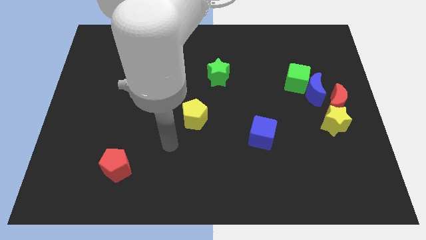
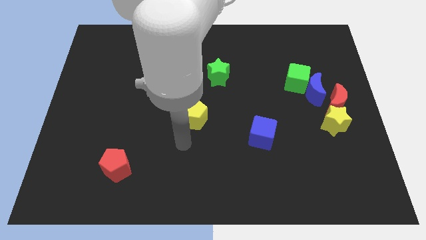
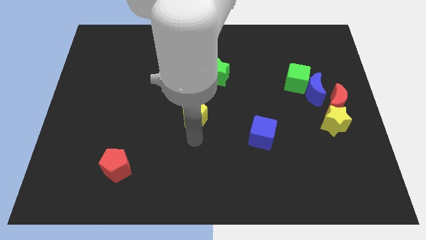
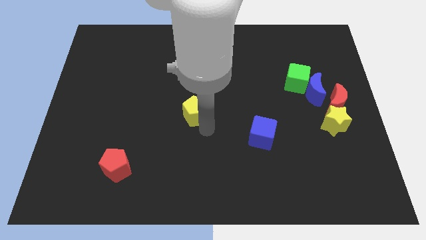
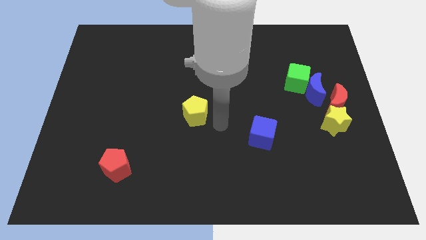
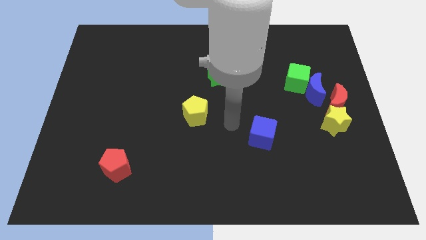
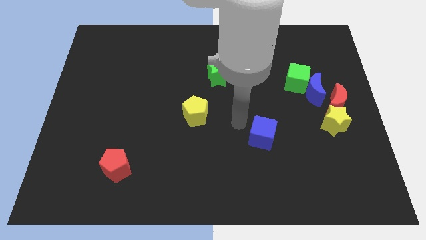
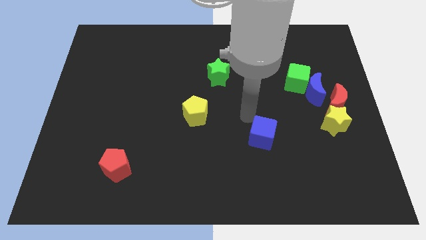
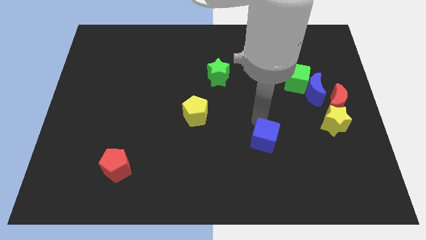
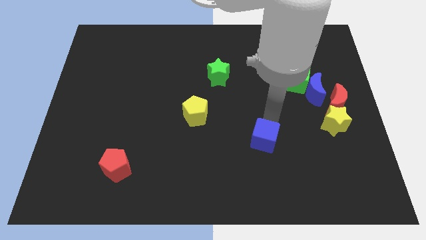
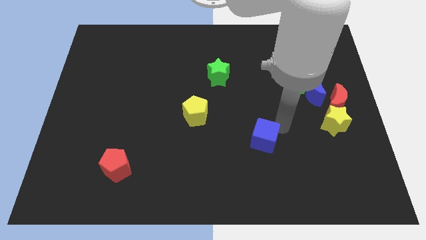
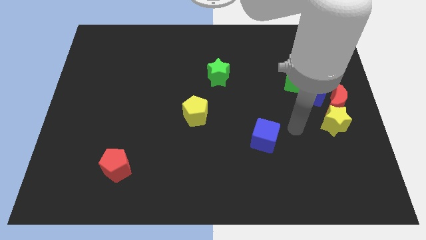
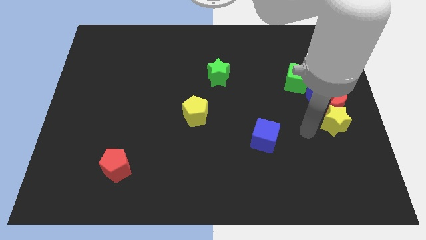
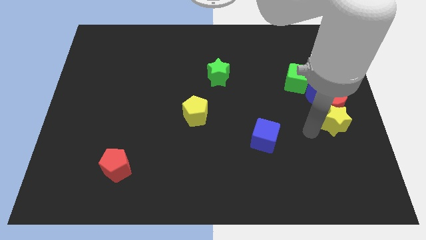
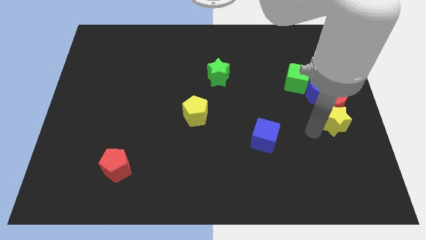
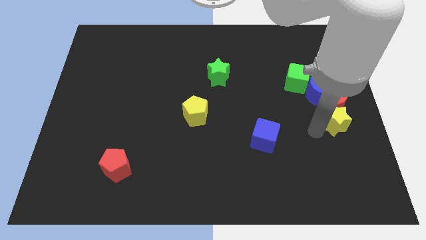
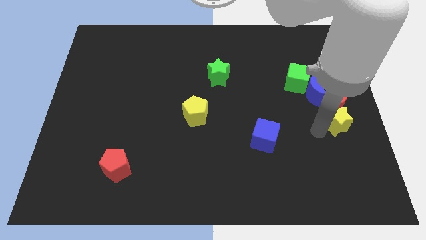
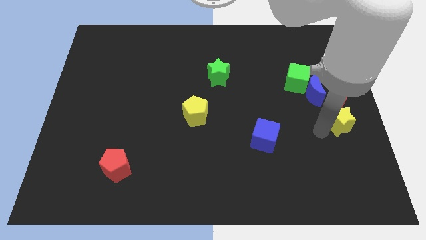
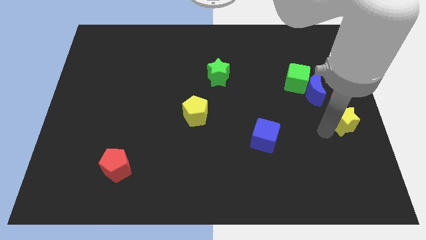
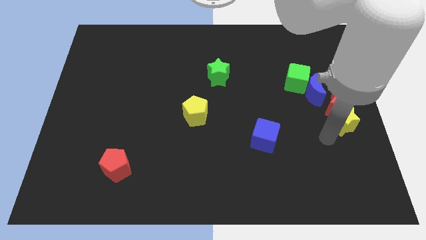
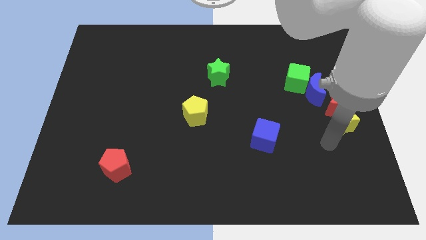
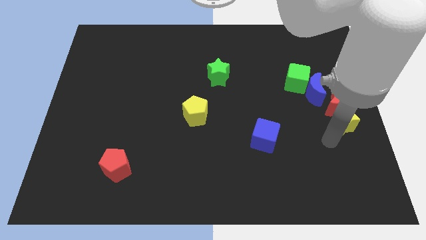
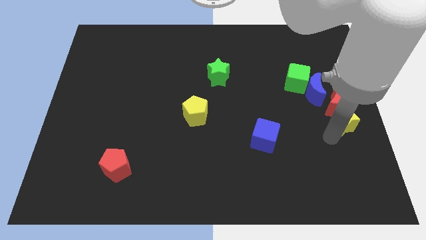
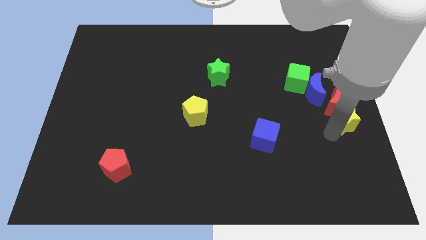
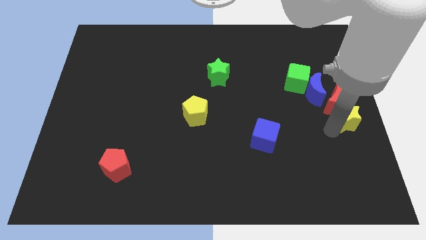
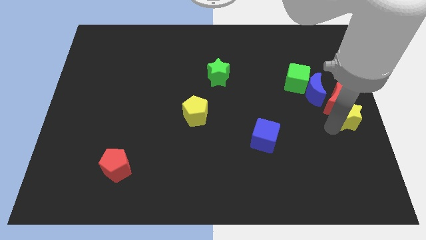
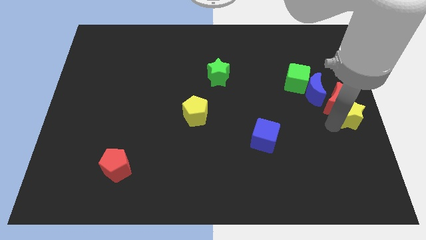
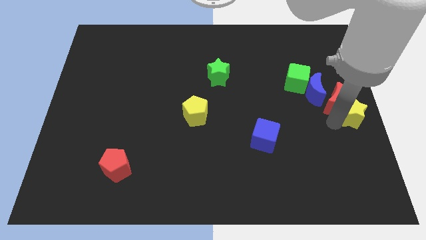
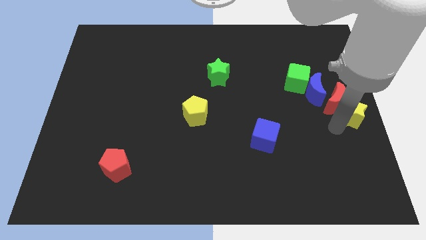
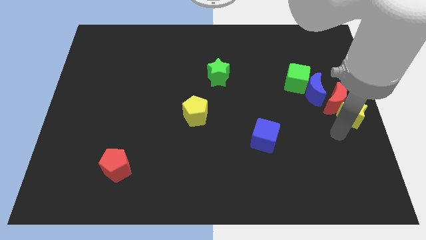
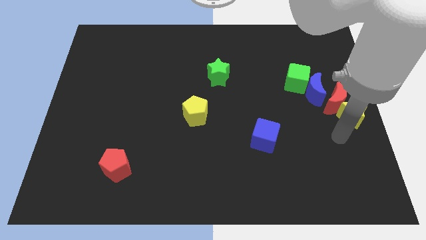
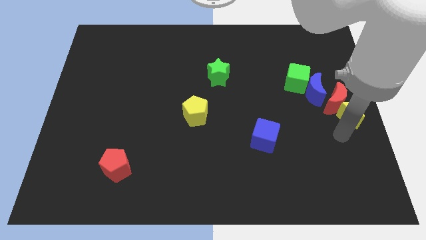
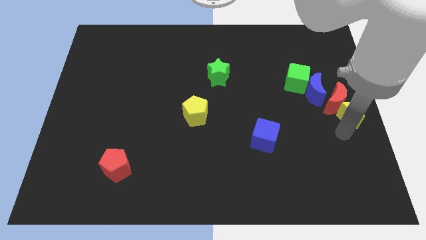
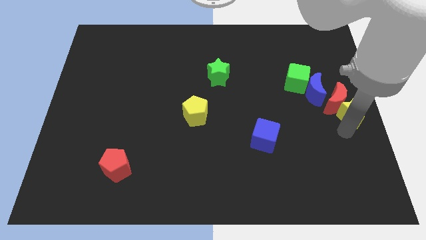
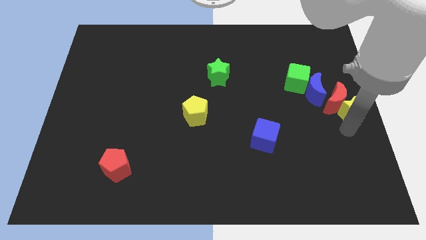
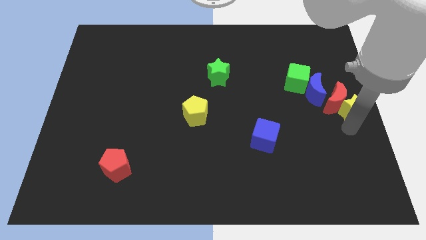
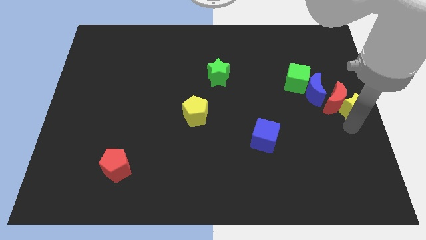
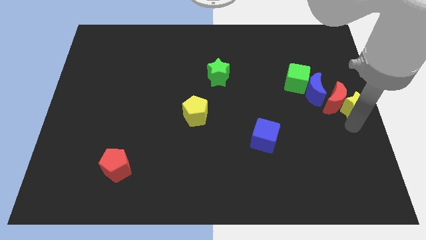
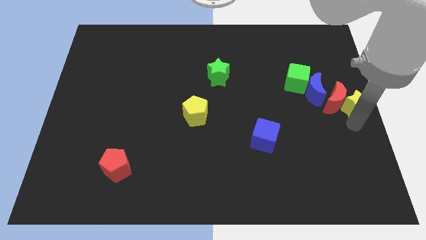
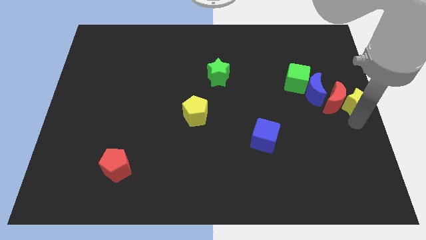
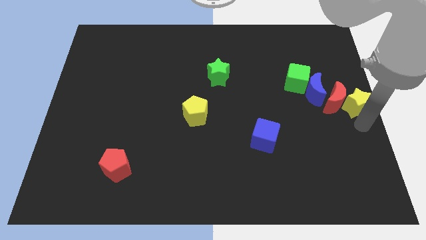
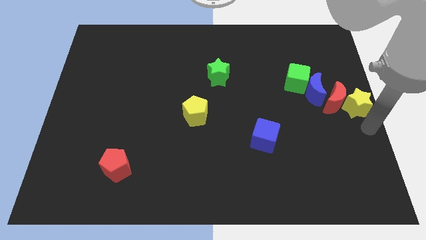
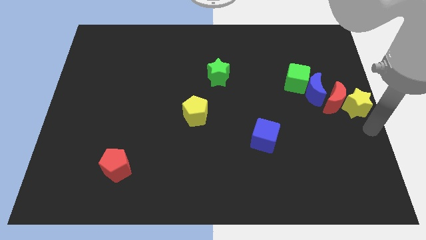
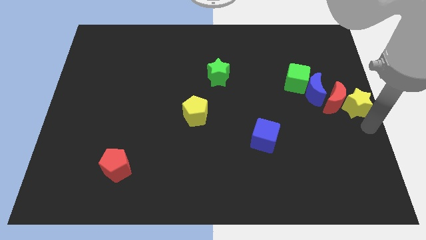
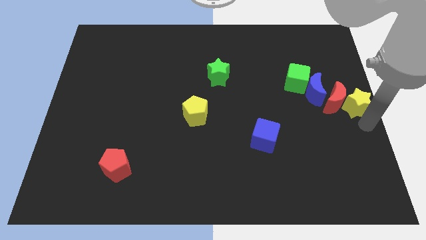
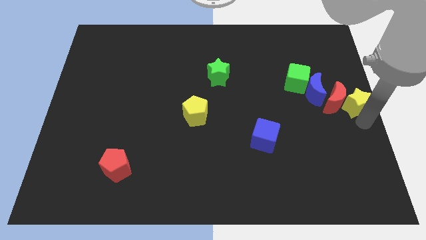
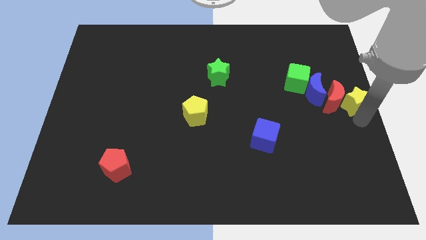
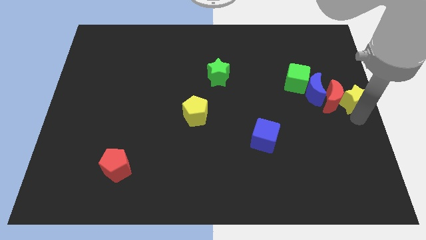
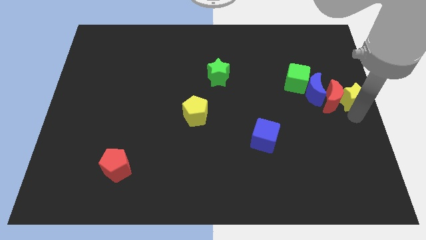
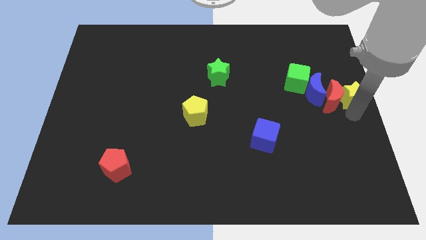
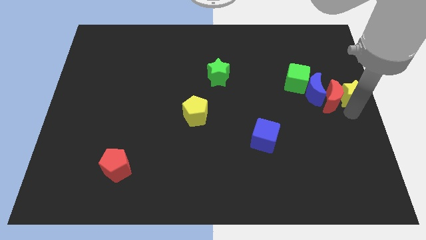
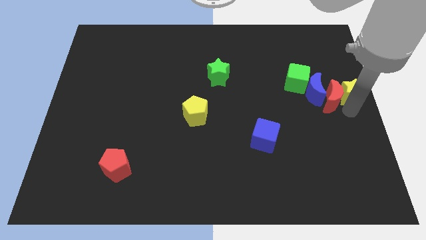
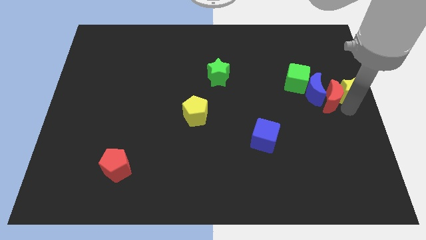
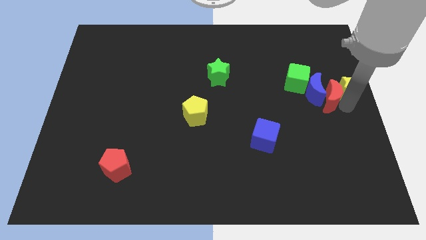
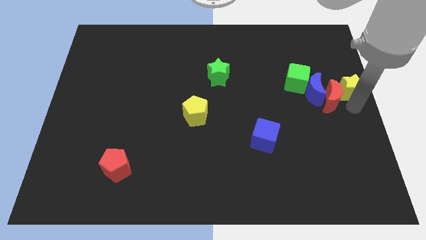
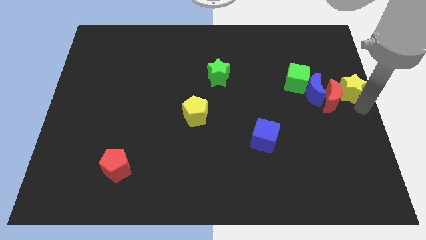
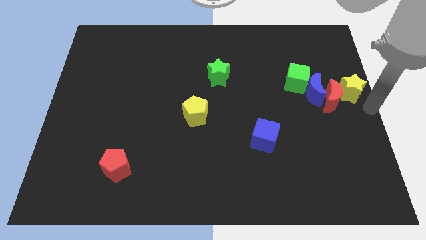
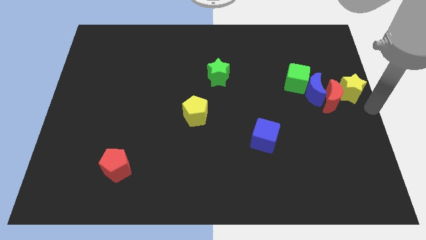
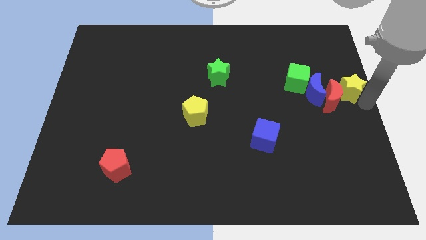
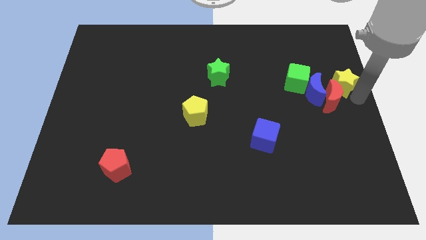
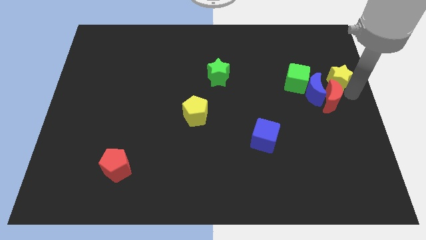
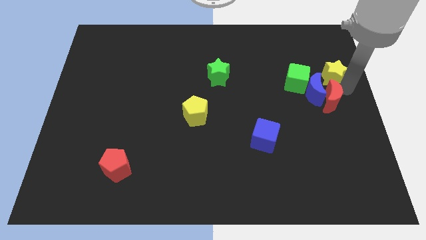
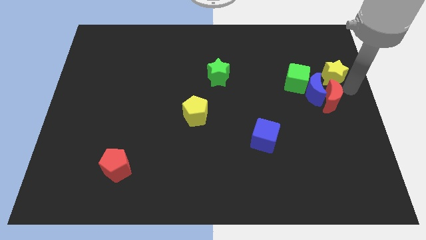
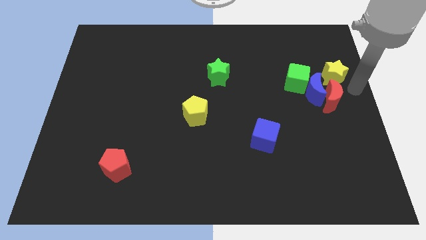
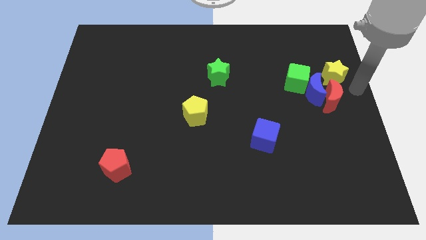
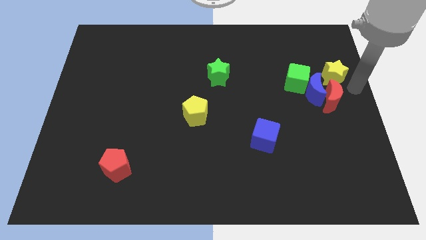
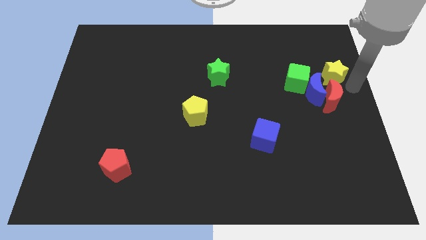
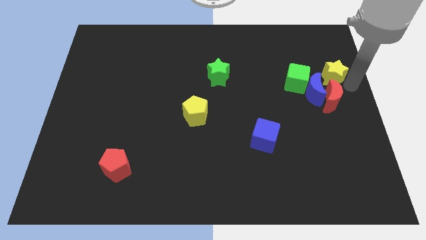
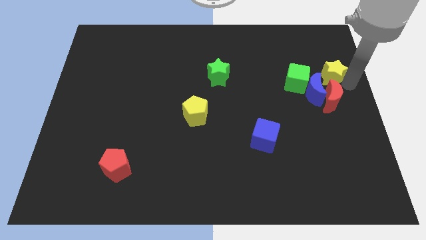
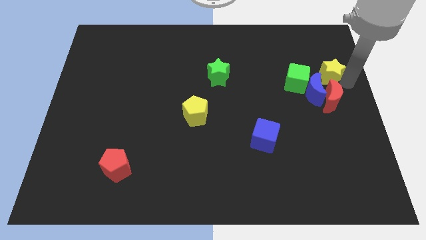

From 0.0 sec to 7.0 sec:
put the yellow star to the top of the blue moon

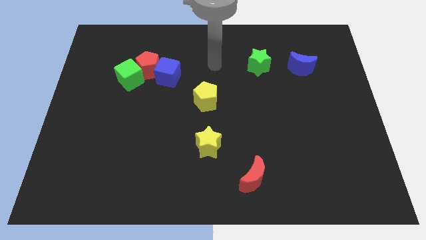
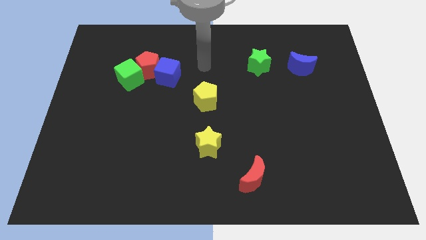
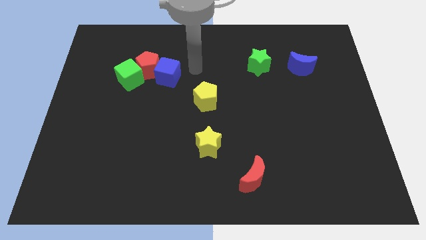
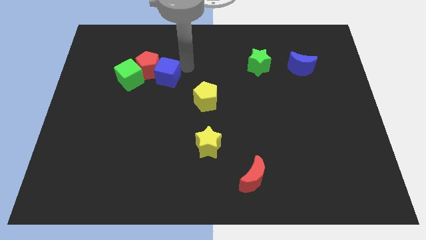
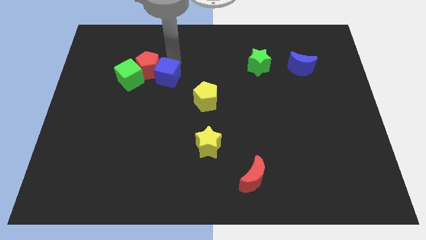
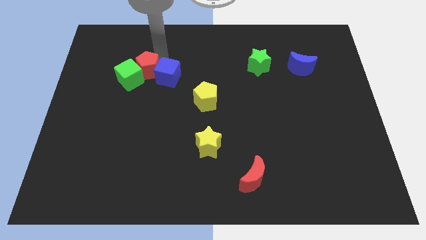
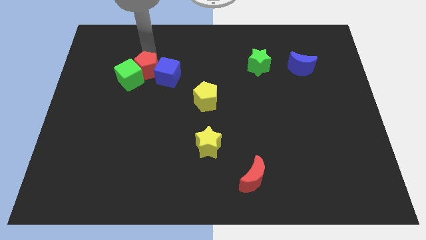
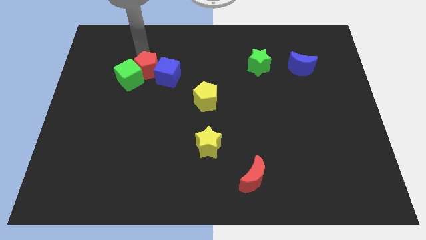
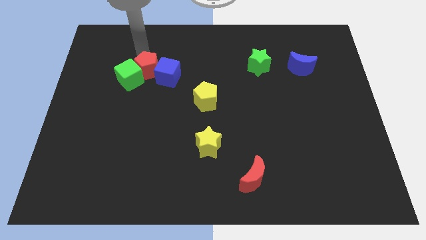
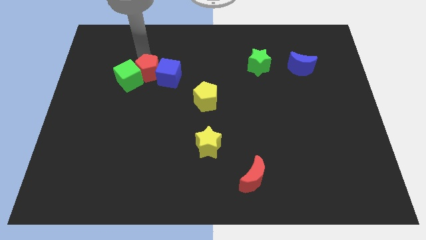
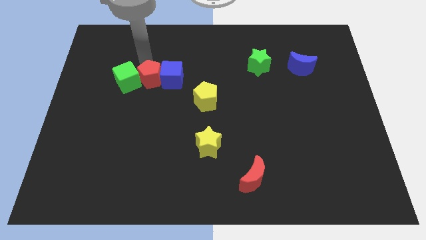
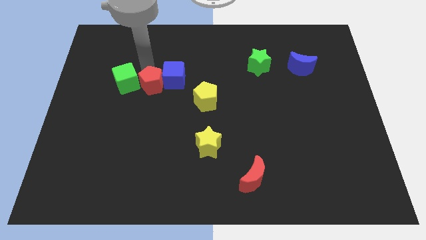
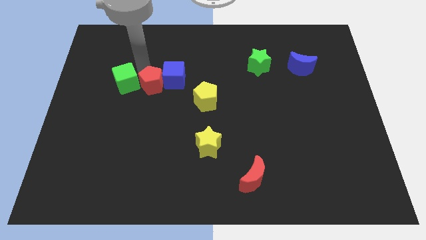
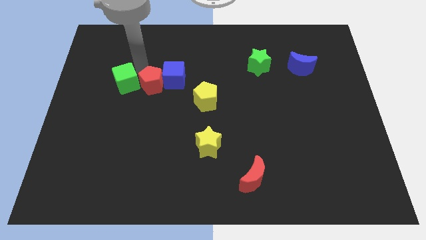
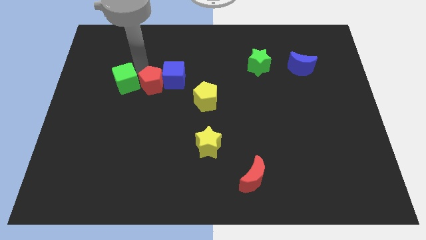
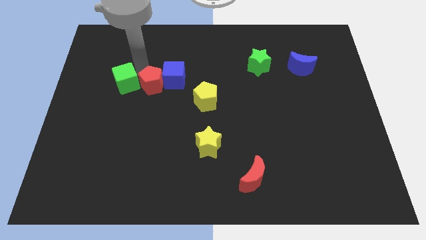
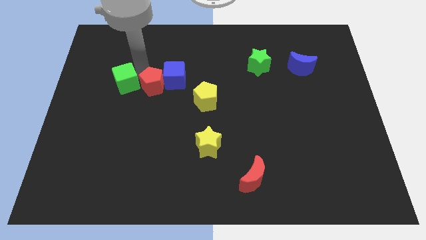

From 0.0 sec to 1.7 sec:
put the red pentagon left of the yellow pentagon
